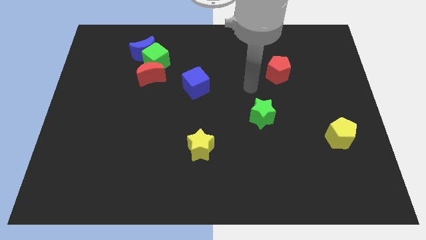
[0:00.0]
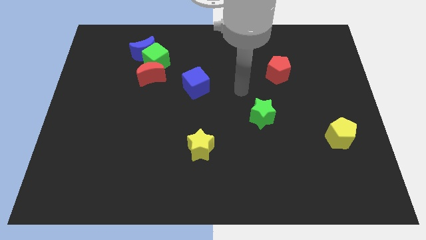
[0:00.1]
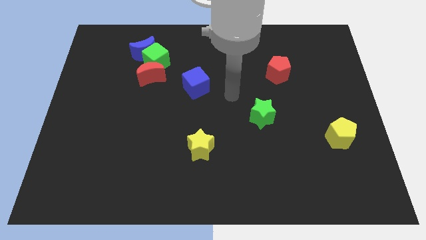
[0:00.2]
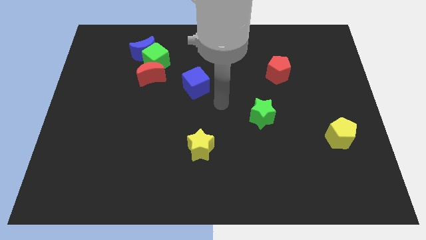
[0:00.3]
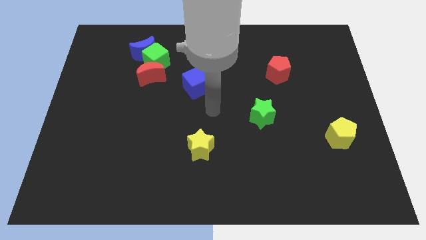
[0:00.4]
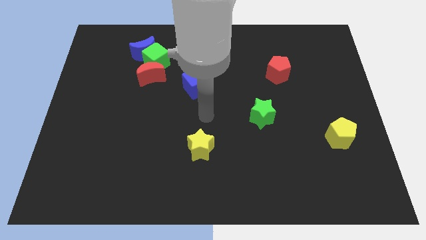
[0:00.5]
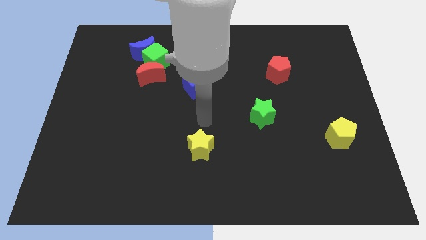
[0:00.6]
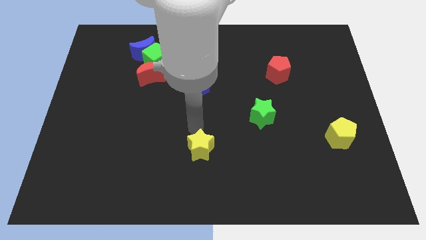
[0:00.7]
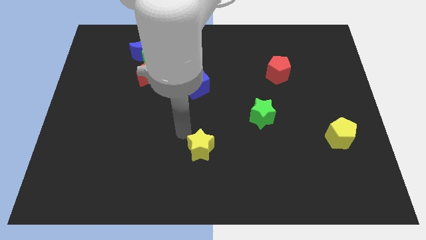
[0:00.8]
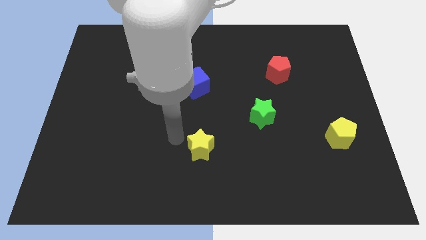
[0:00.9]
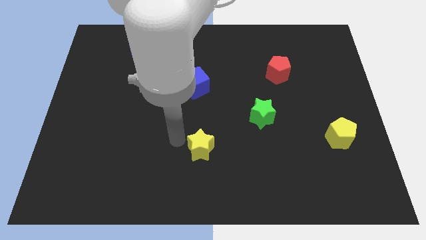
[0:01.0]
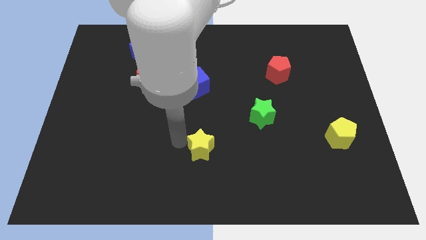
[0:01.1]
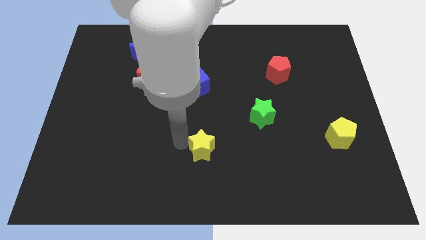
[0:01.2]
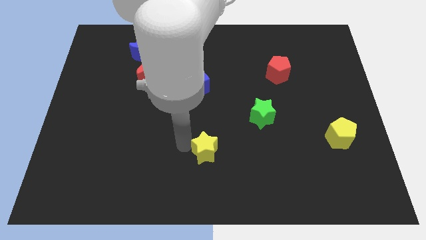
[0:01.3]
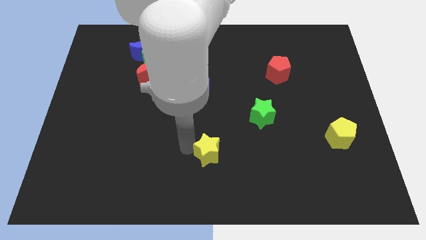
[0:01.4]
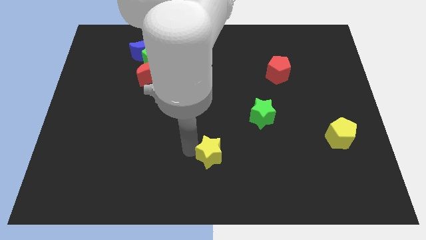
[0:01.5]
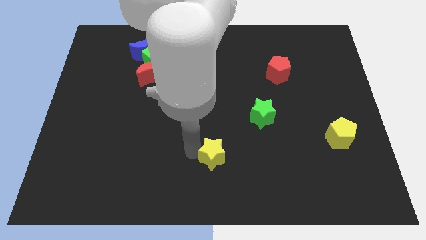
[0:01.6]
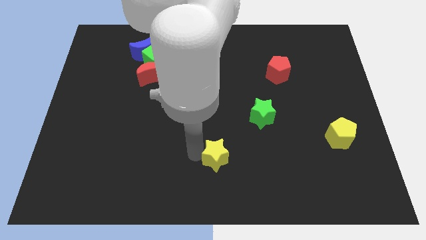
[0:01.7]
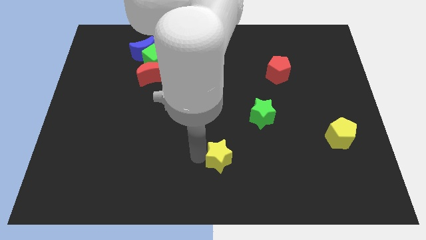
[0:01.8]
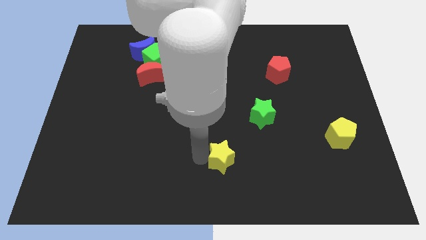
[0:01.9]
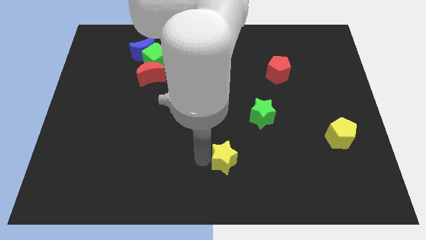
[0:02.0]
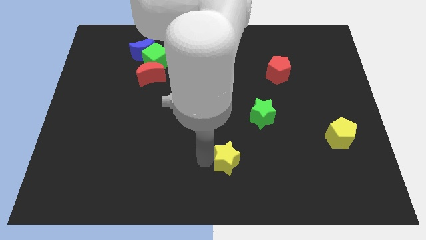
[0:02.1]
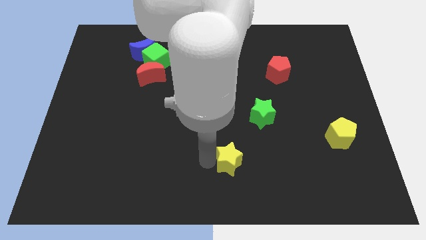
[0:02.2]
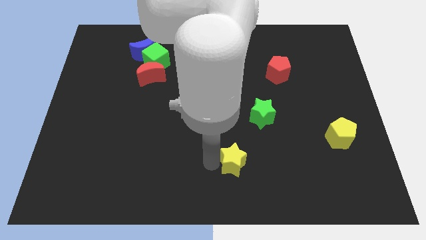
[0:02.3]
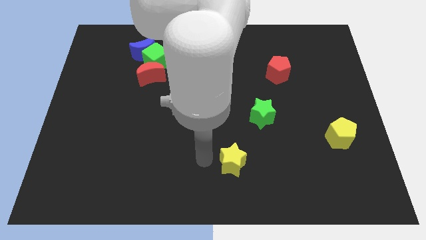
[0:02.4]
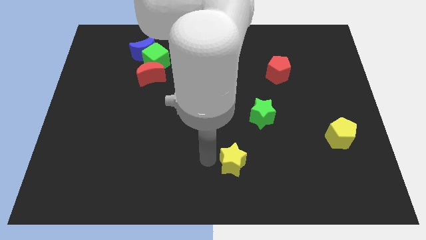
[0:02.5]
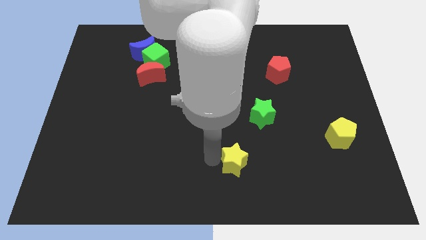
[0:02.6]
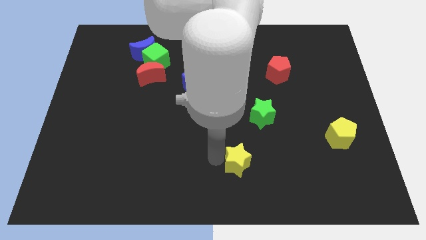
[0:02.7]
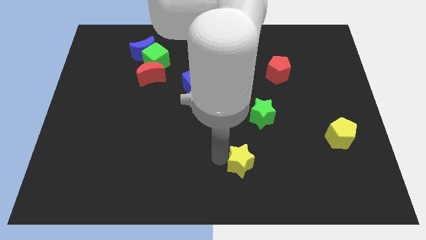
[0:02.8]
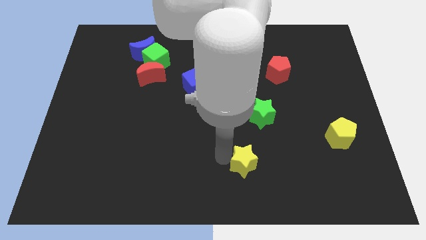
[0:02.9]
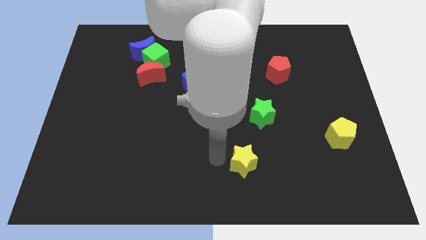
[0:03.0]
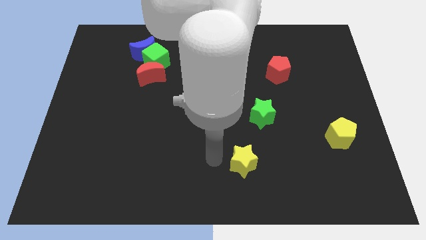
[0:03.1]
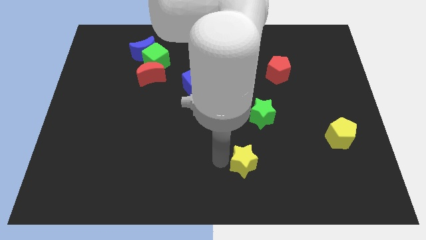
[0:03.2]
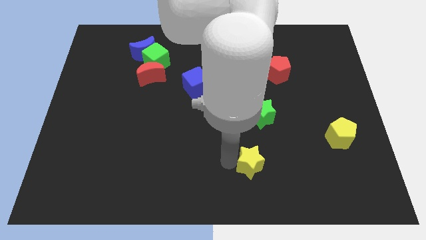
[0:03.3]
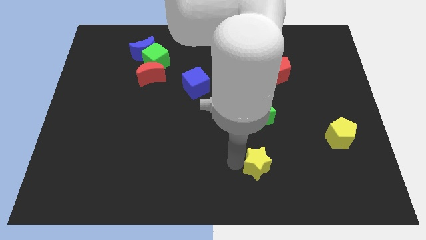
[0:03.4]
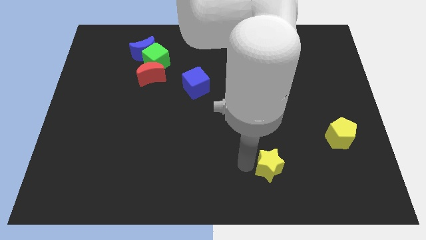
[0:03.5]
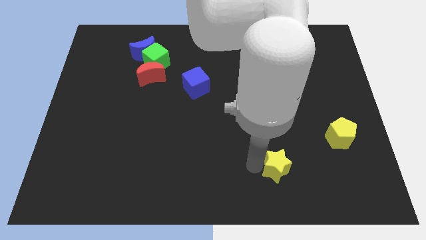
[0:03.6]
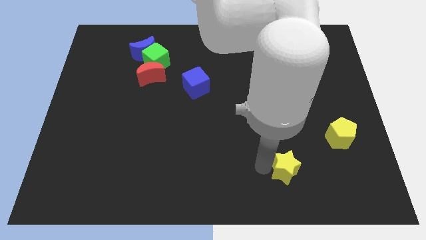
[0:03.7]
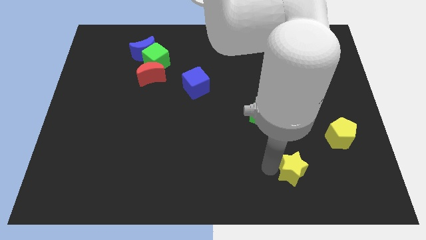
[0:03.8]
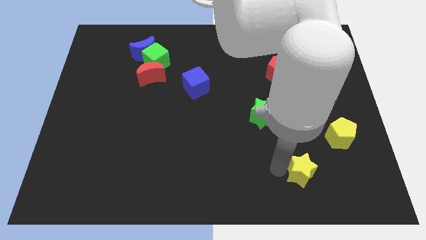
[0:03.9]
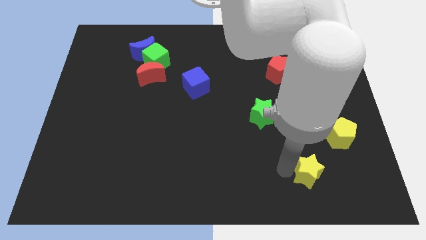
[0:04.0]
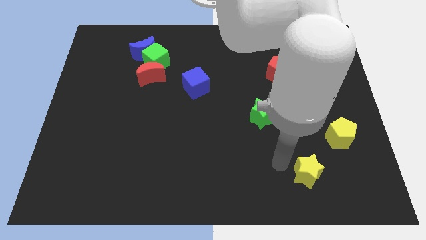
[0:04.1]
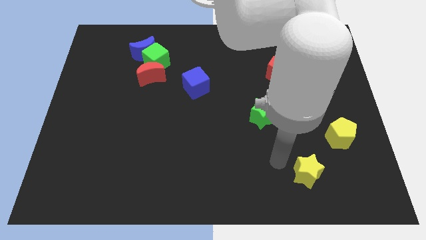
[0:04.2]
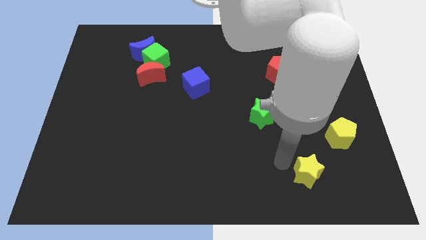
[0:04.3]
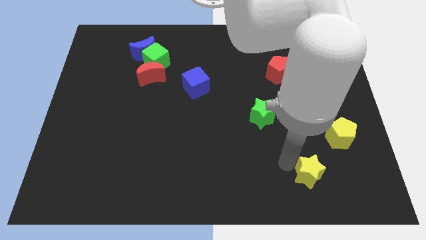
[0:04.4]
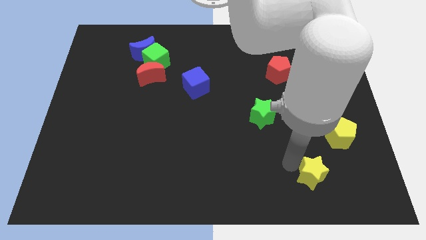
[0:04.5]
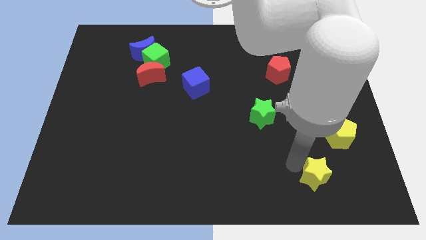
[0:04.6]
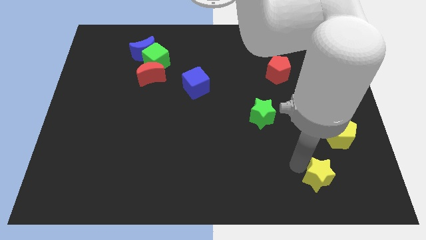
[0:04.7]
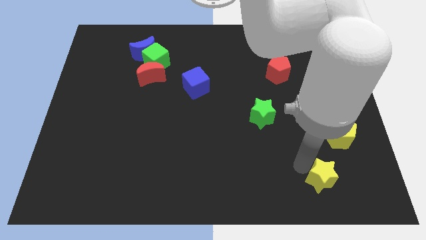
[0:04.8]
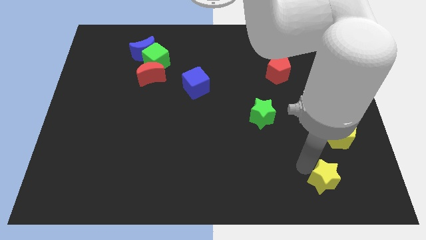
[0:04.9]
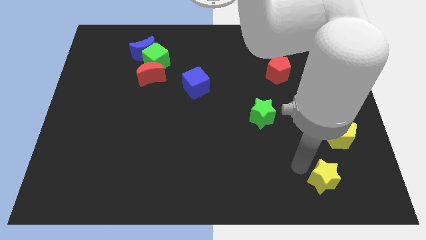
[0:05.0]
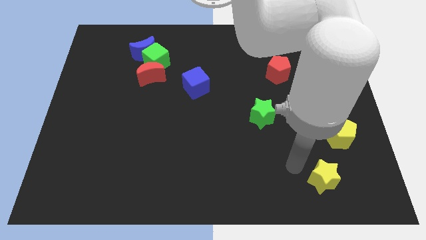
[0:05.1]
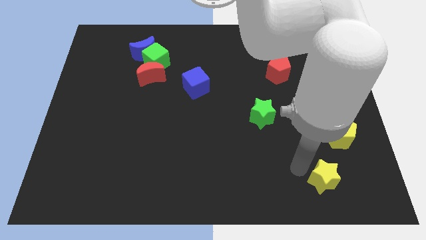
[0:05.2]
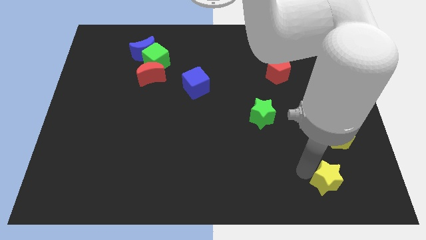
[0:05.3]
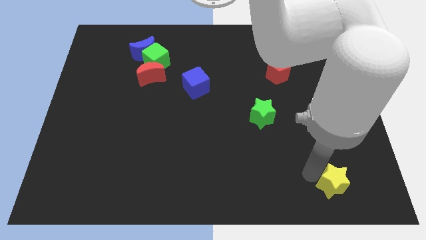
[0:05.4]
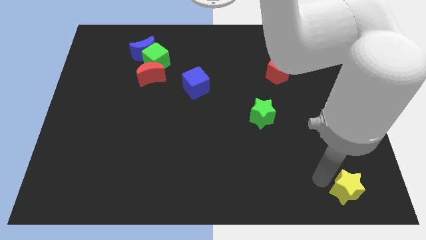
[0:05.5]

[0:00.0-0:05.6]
slide the yellow star to the bottom right of the board

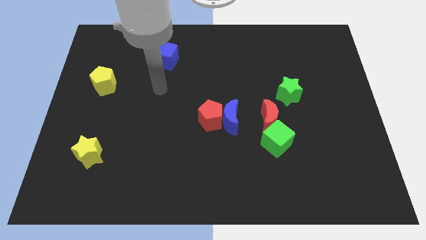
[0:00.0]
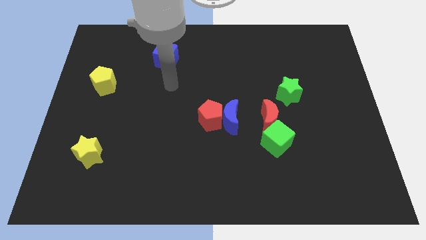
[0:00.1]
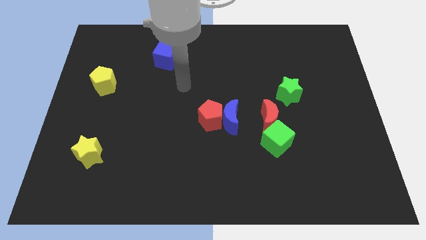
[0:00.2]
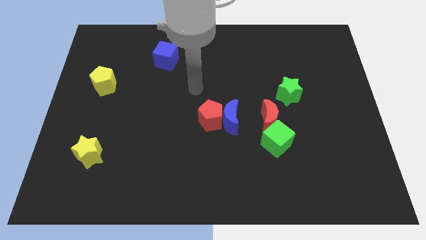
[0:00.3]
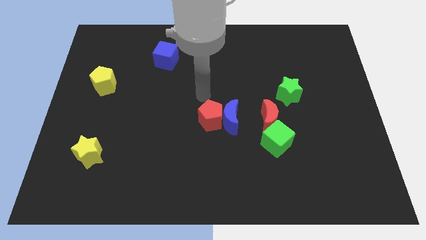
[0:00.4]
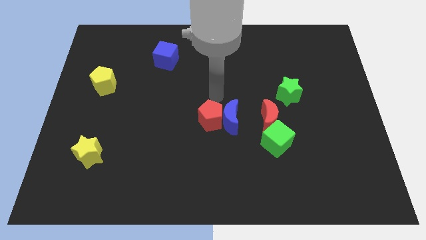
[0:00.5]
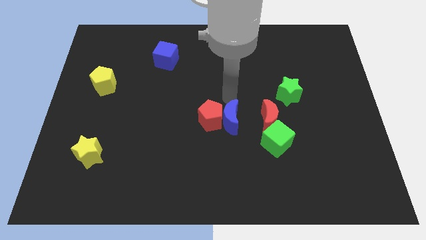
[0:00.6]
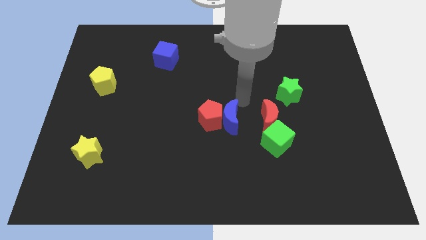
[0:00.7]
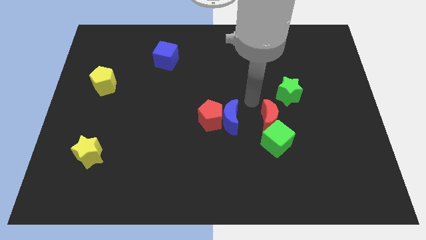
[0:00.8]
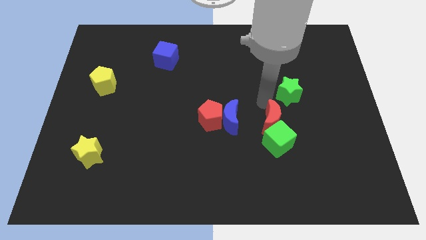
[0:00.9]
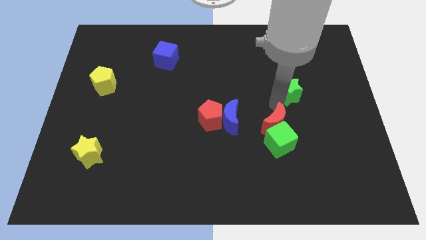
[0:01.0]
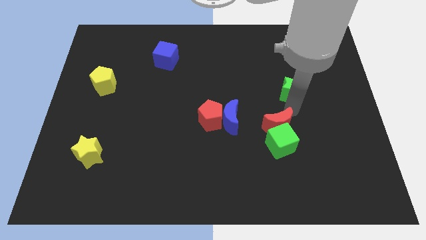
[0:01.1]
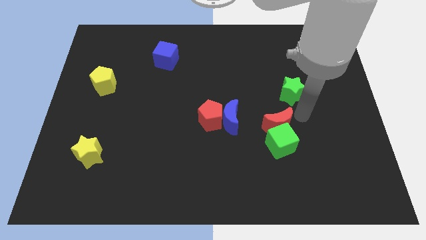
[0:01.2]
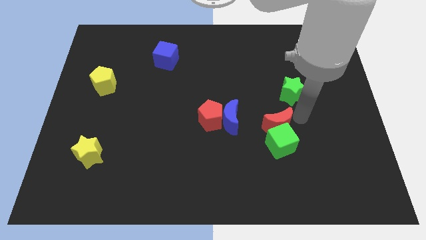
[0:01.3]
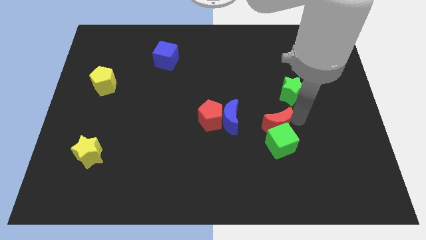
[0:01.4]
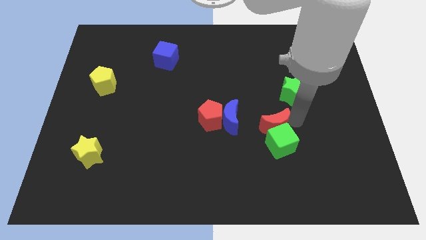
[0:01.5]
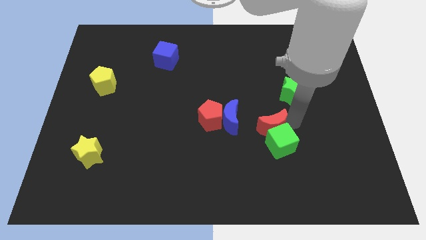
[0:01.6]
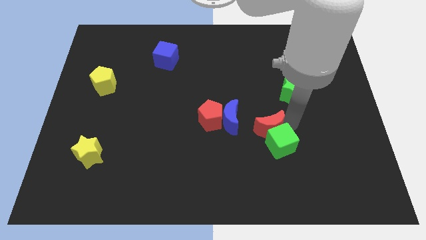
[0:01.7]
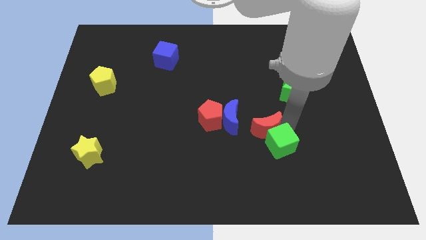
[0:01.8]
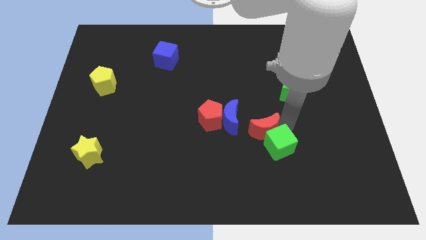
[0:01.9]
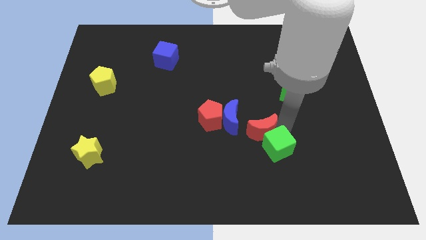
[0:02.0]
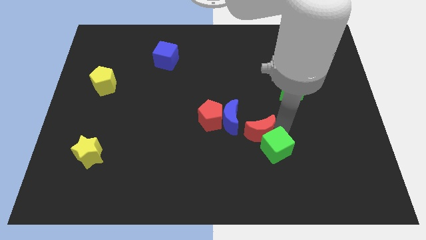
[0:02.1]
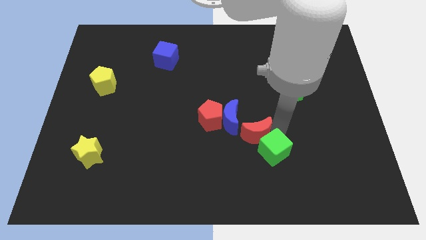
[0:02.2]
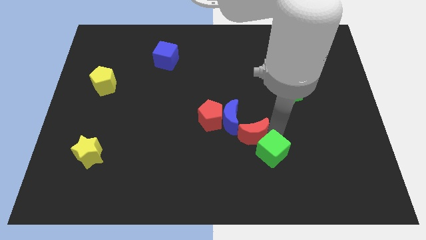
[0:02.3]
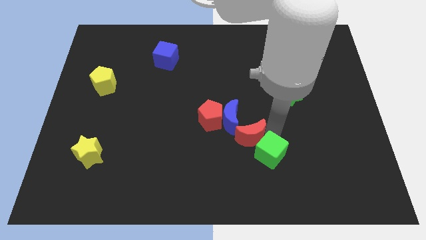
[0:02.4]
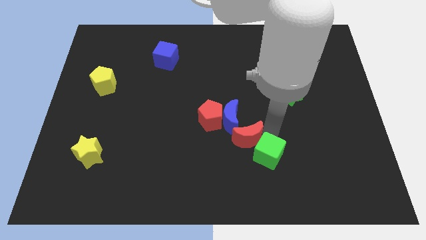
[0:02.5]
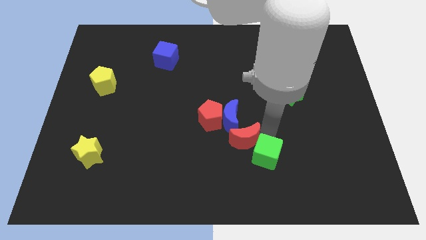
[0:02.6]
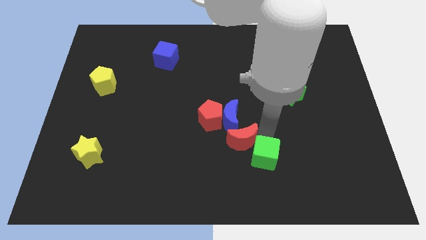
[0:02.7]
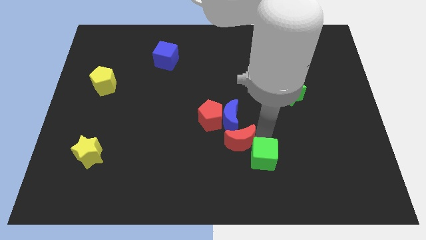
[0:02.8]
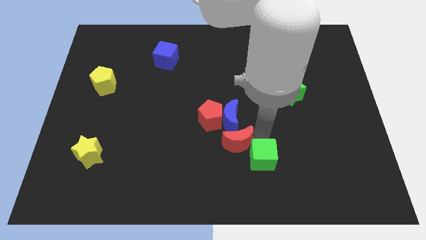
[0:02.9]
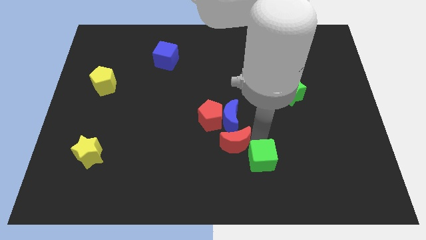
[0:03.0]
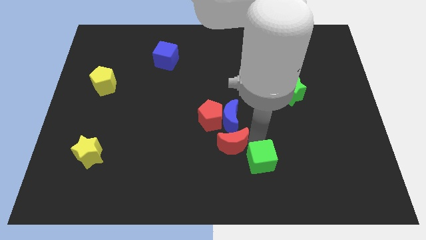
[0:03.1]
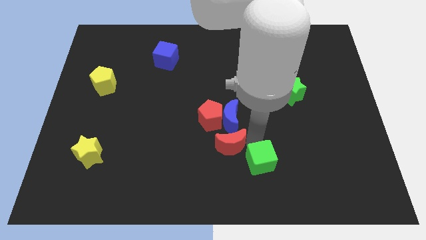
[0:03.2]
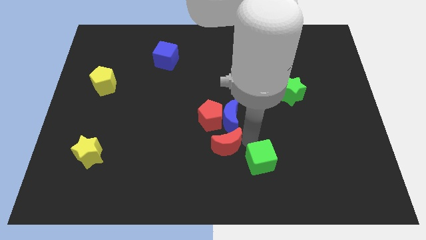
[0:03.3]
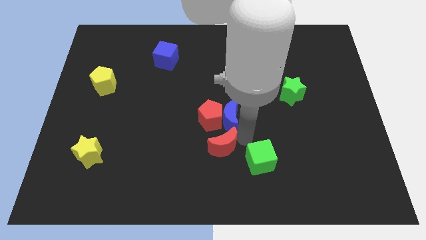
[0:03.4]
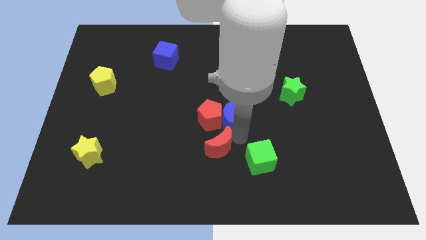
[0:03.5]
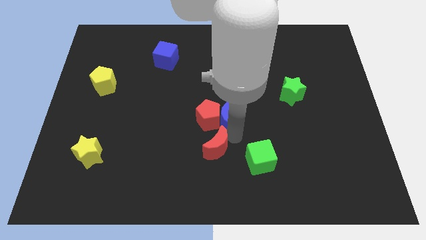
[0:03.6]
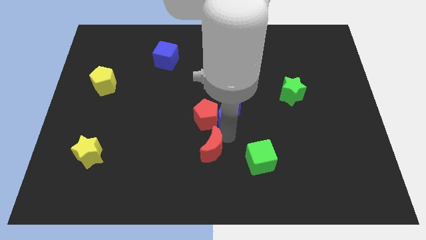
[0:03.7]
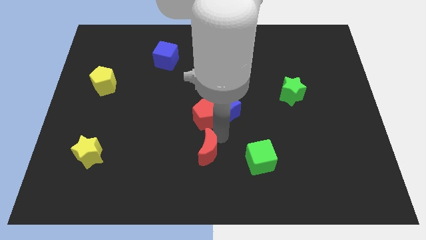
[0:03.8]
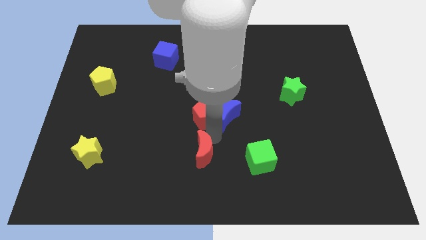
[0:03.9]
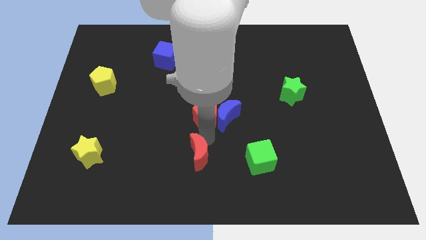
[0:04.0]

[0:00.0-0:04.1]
push the red moon to the bottom side
